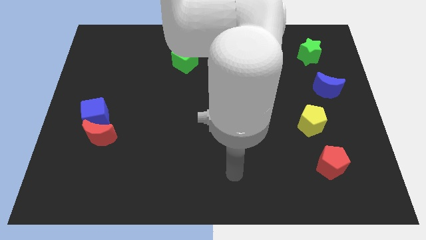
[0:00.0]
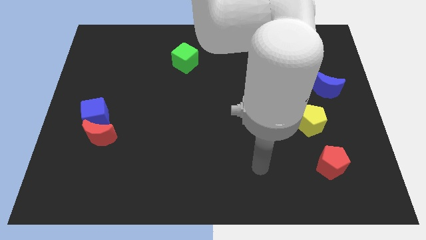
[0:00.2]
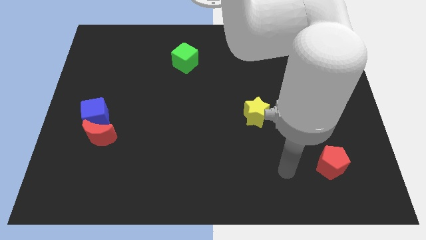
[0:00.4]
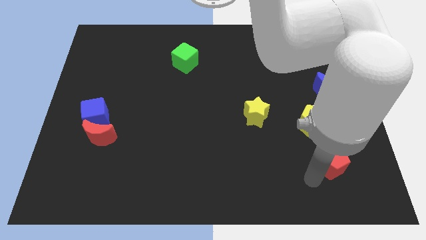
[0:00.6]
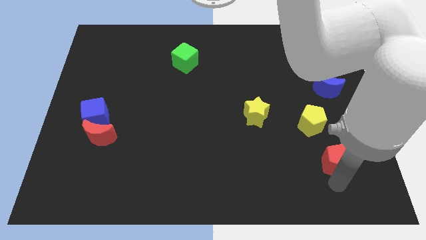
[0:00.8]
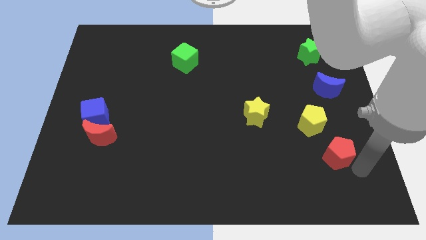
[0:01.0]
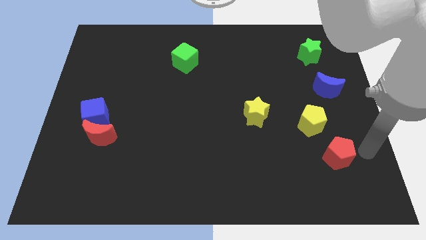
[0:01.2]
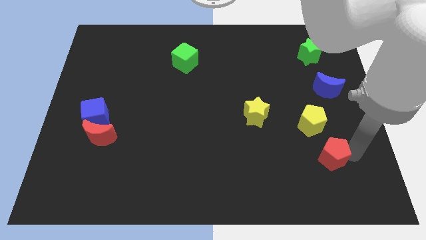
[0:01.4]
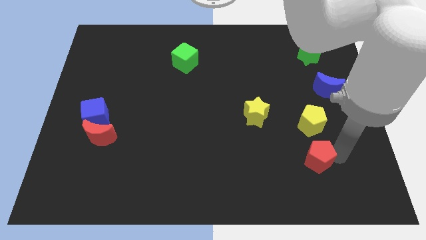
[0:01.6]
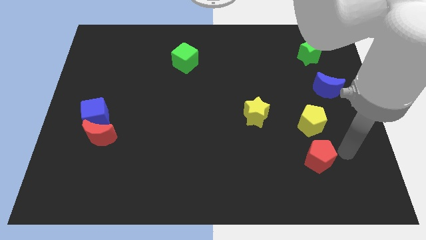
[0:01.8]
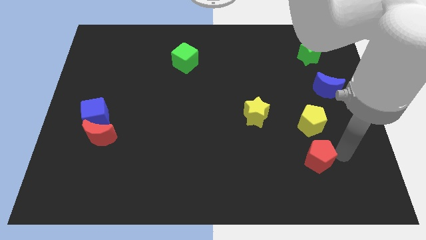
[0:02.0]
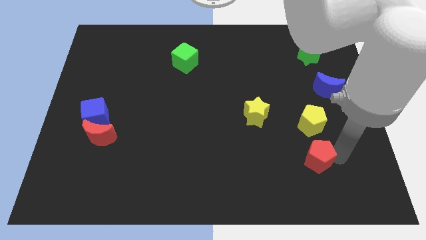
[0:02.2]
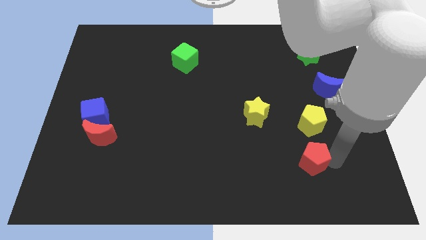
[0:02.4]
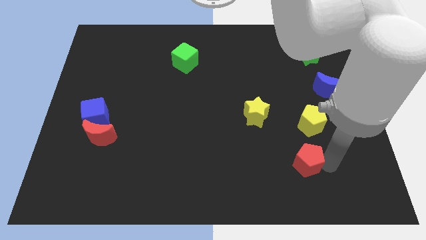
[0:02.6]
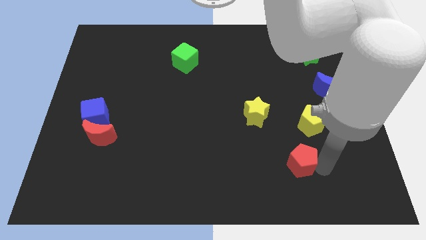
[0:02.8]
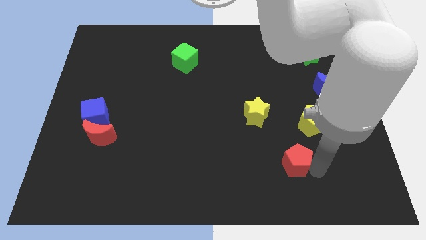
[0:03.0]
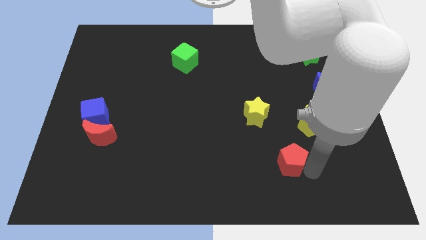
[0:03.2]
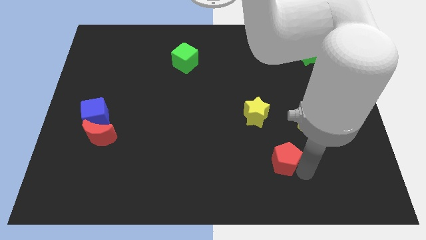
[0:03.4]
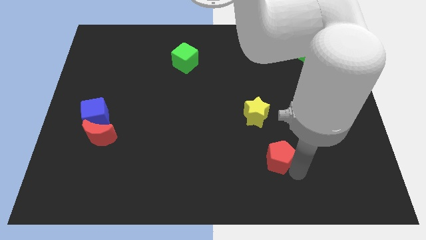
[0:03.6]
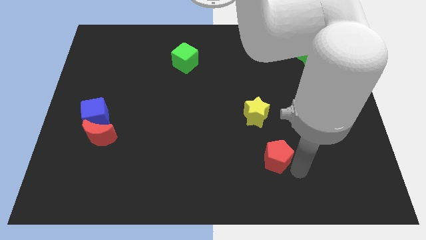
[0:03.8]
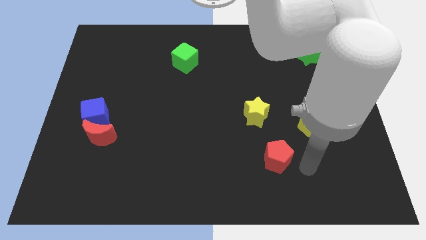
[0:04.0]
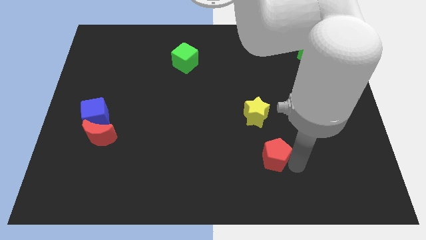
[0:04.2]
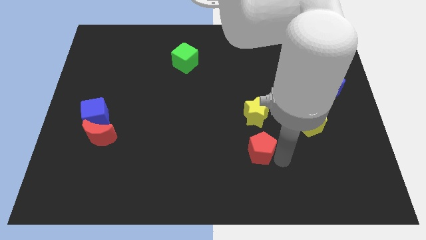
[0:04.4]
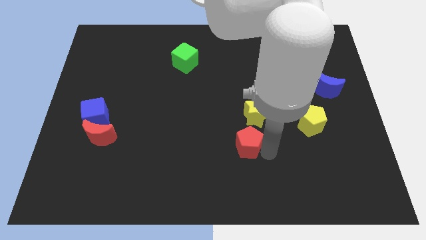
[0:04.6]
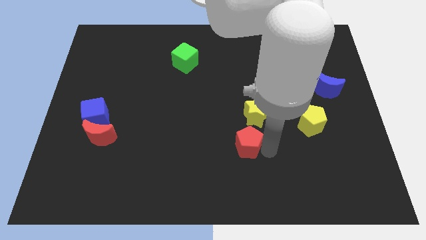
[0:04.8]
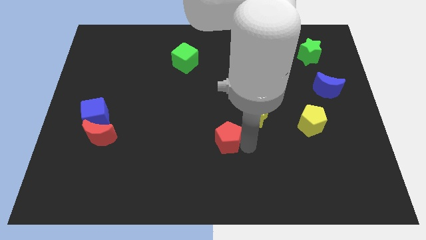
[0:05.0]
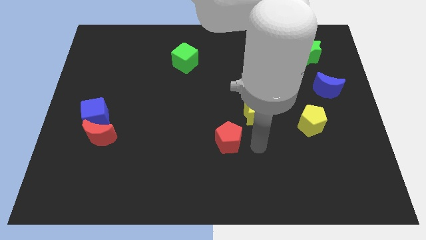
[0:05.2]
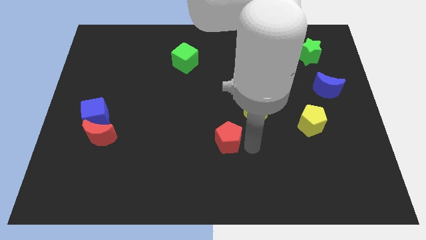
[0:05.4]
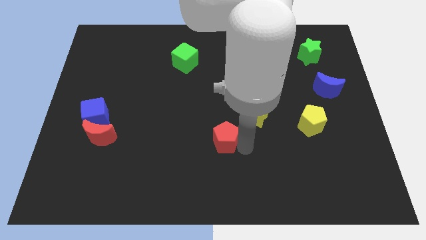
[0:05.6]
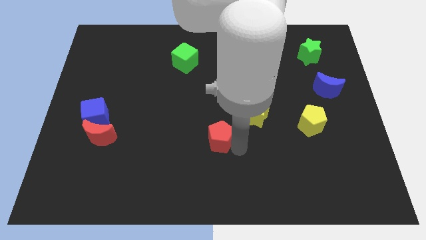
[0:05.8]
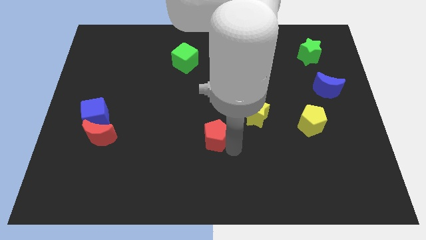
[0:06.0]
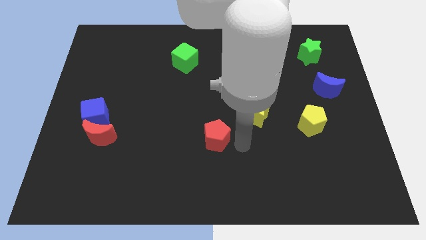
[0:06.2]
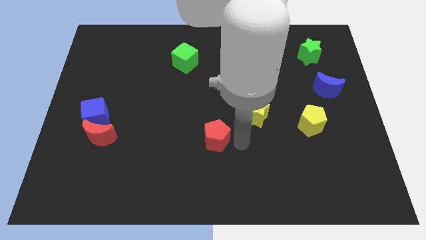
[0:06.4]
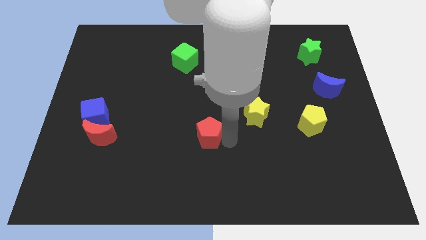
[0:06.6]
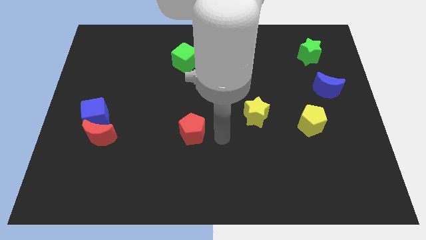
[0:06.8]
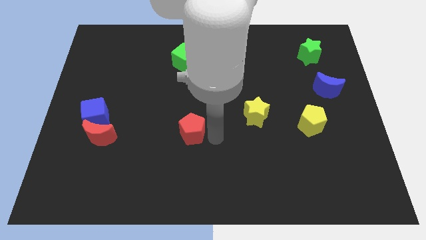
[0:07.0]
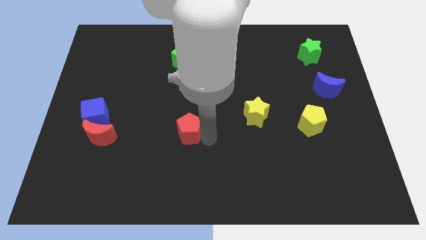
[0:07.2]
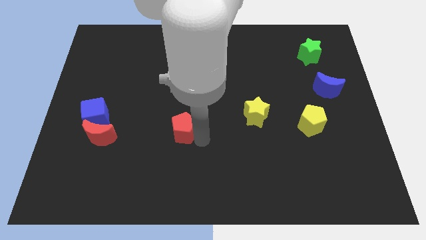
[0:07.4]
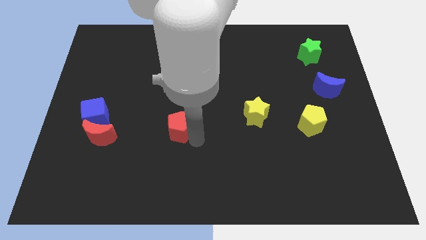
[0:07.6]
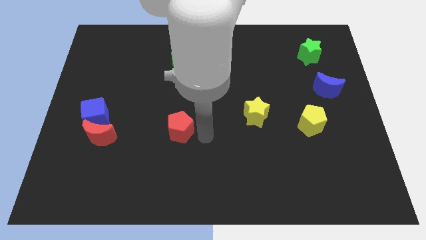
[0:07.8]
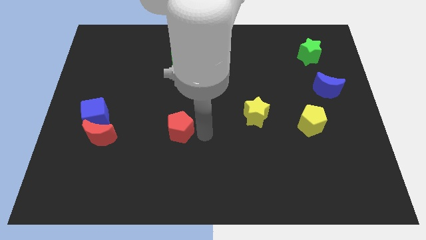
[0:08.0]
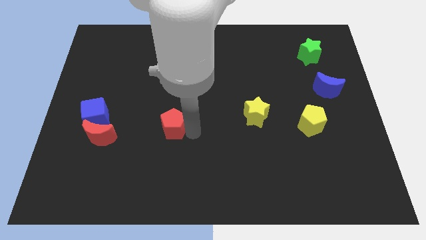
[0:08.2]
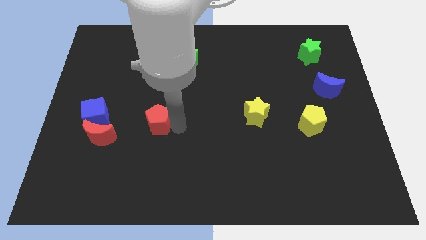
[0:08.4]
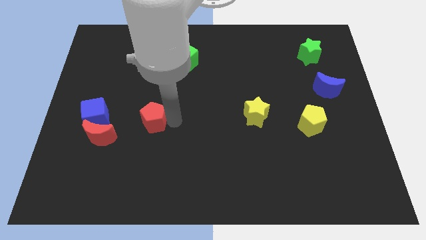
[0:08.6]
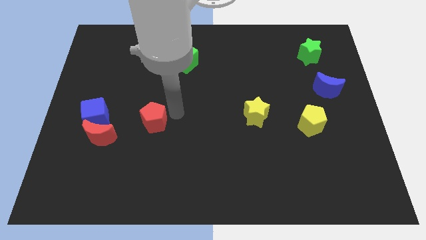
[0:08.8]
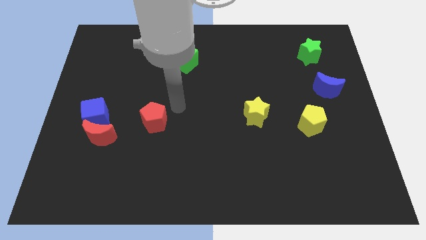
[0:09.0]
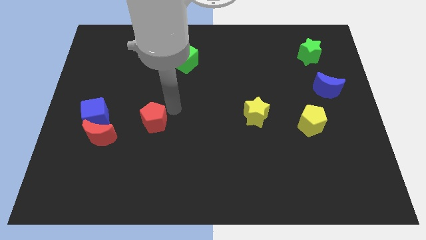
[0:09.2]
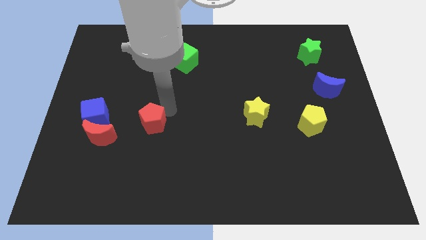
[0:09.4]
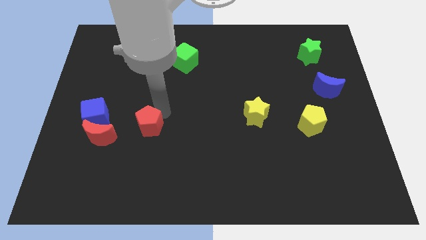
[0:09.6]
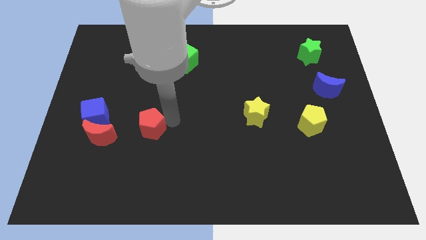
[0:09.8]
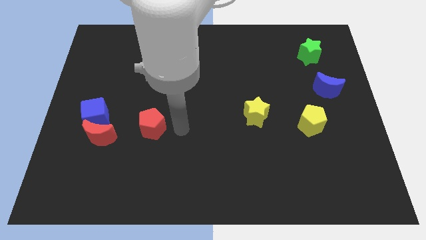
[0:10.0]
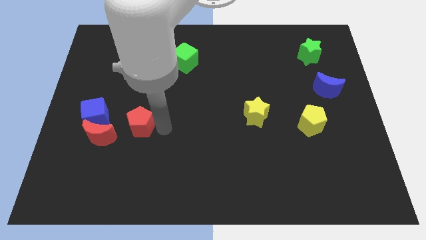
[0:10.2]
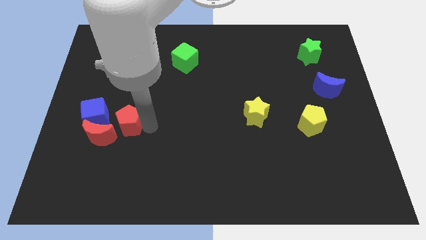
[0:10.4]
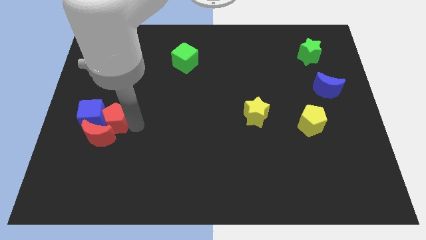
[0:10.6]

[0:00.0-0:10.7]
put the red pentagon close to the blue cube

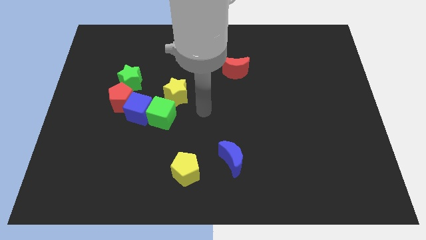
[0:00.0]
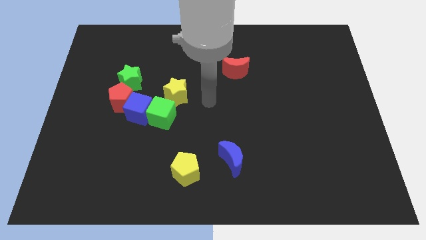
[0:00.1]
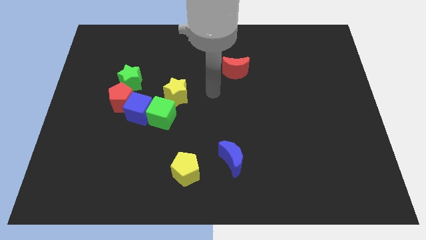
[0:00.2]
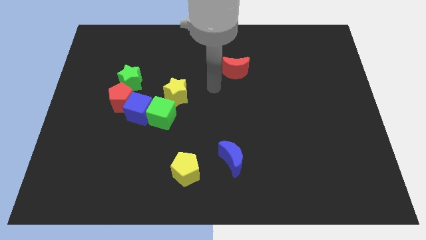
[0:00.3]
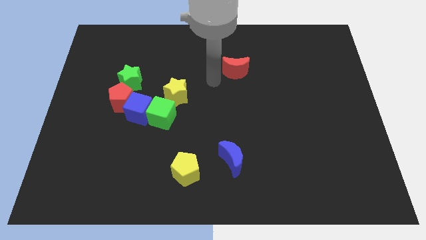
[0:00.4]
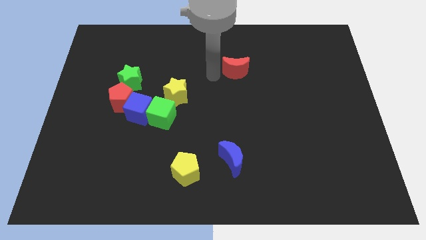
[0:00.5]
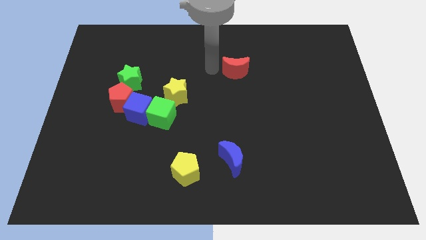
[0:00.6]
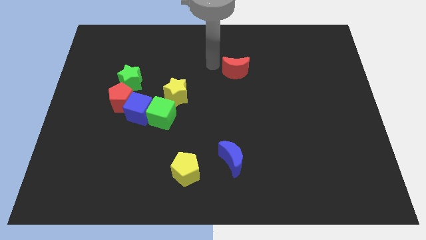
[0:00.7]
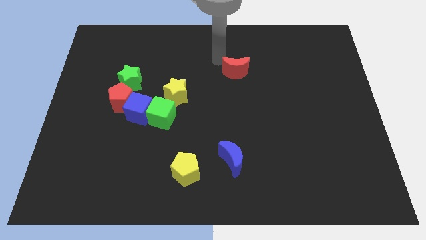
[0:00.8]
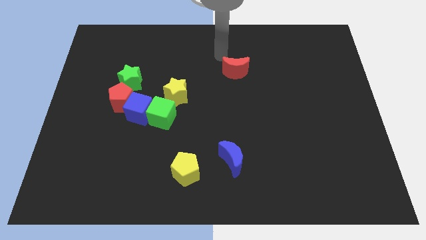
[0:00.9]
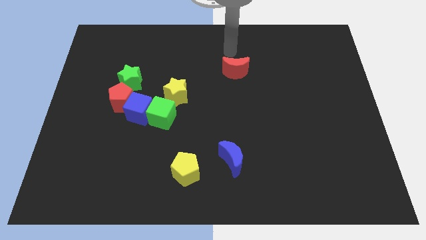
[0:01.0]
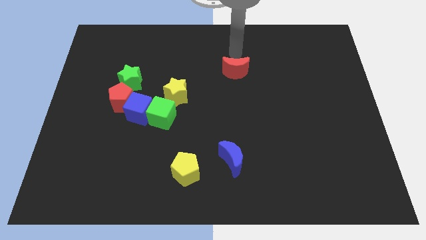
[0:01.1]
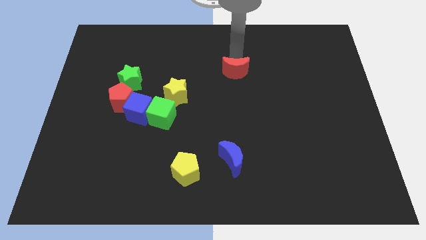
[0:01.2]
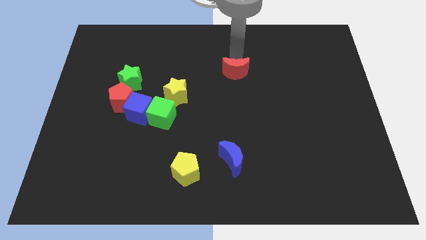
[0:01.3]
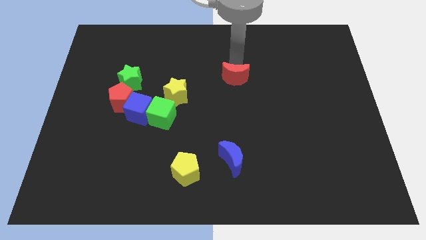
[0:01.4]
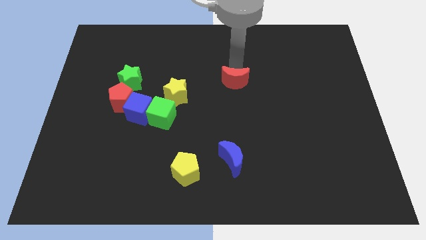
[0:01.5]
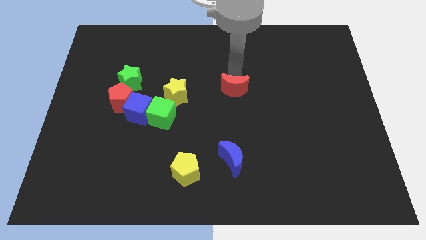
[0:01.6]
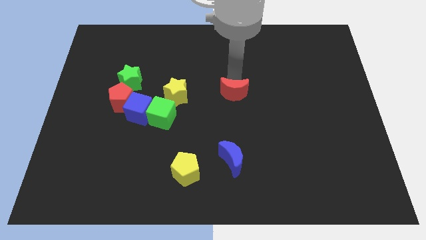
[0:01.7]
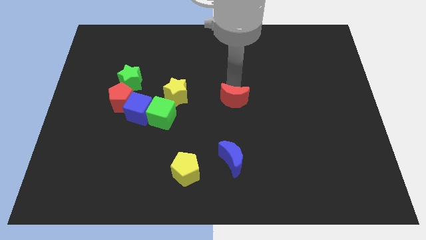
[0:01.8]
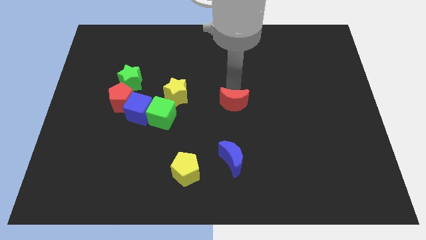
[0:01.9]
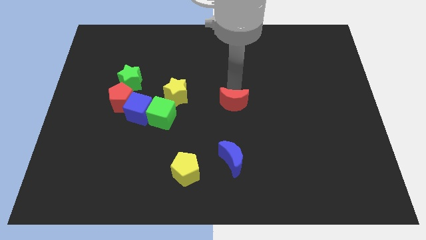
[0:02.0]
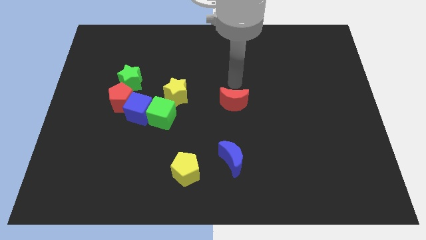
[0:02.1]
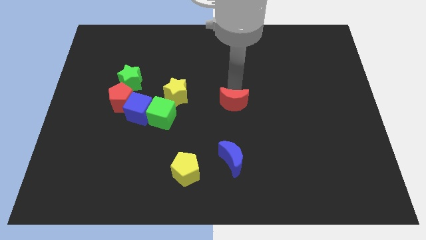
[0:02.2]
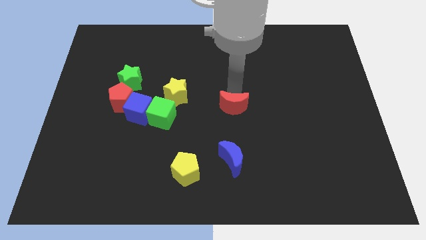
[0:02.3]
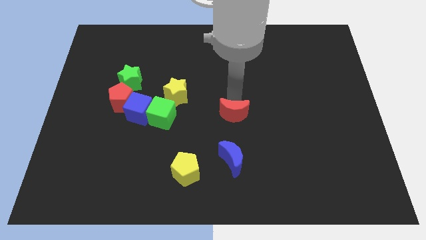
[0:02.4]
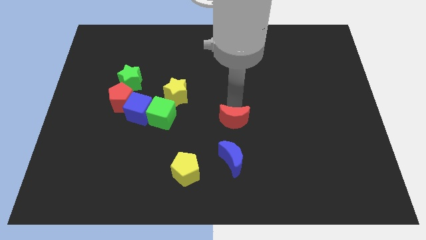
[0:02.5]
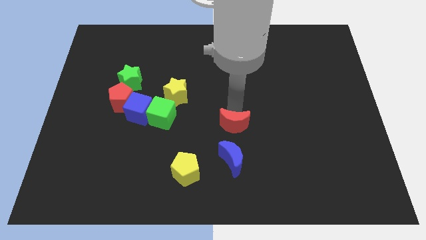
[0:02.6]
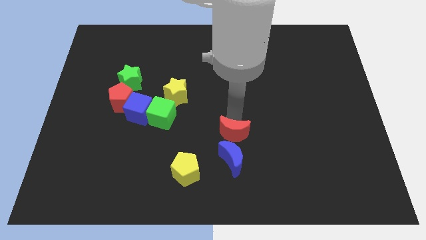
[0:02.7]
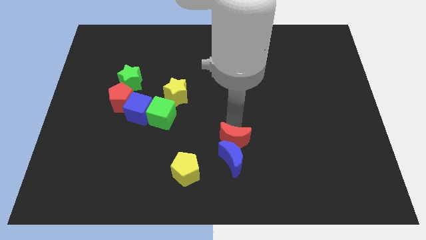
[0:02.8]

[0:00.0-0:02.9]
put the red moon next to the blue moon
